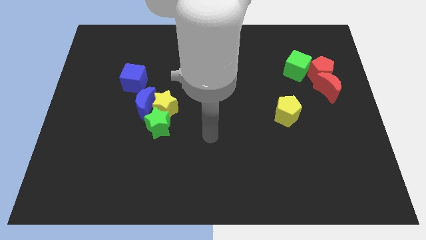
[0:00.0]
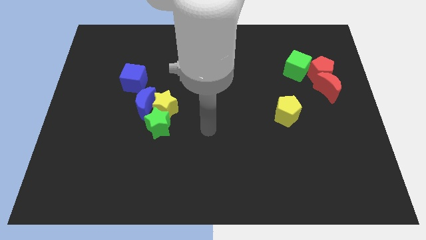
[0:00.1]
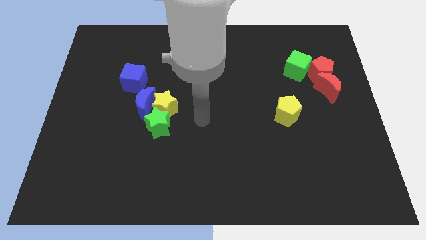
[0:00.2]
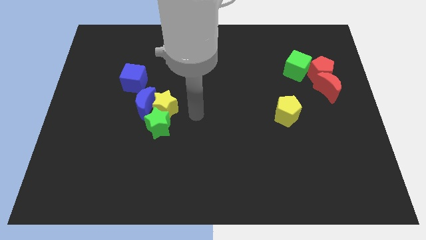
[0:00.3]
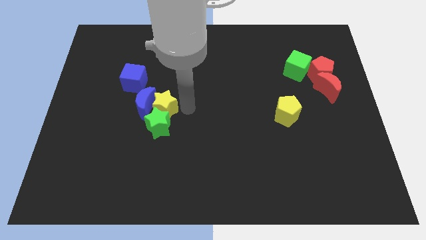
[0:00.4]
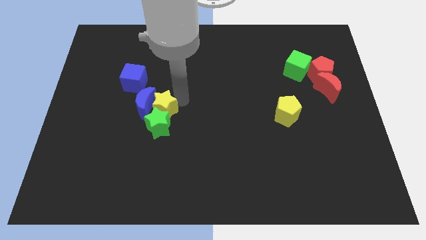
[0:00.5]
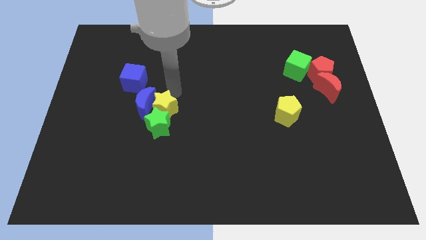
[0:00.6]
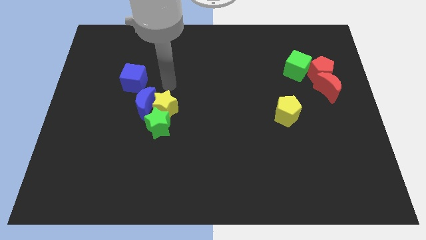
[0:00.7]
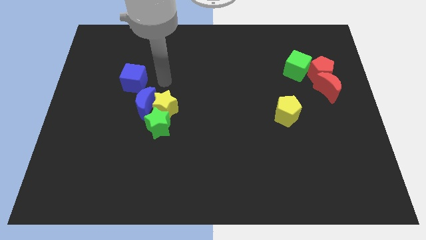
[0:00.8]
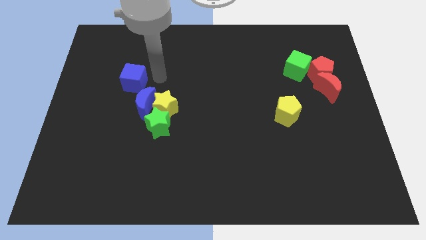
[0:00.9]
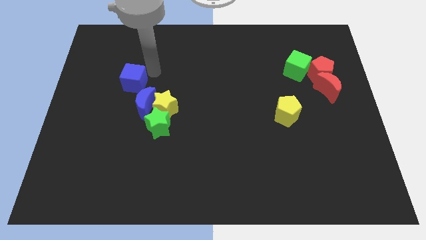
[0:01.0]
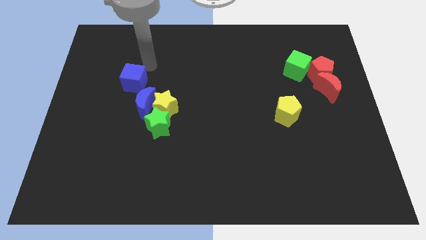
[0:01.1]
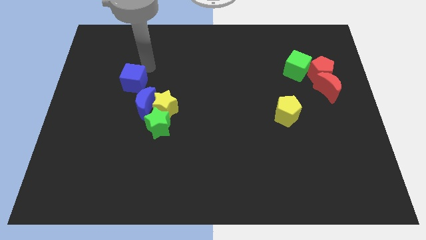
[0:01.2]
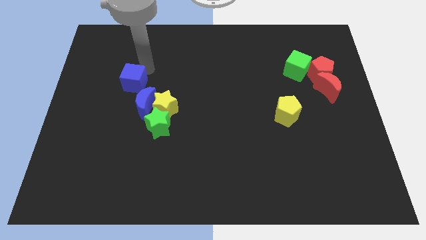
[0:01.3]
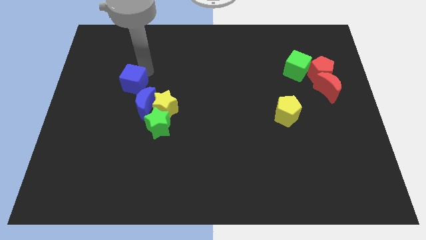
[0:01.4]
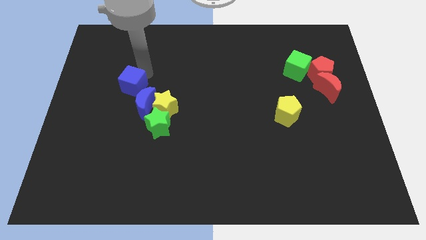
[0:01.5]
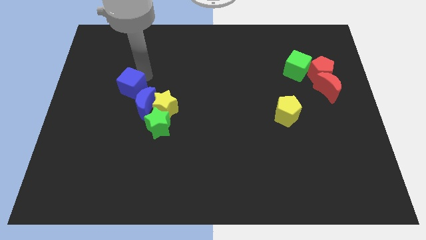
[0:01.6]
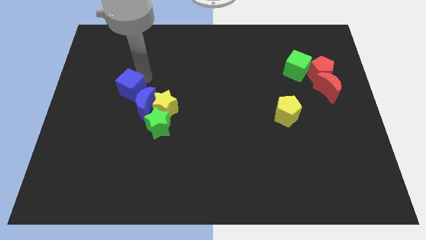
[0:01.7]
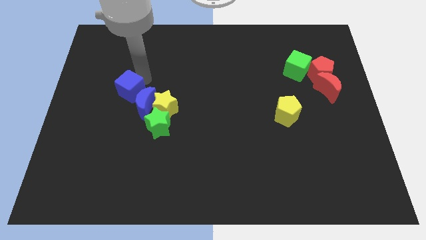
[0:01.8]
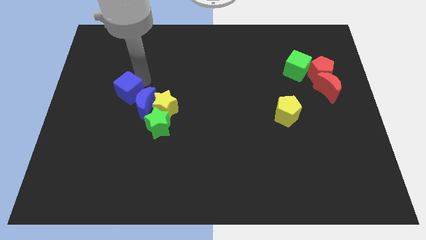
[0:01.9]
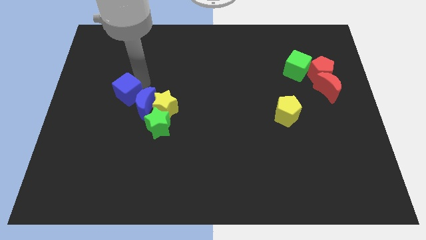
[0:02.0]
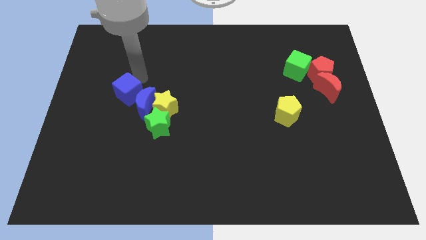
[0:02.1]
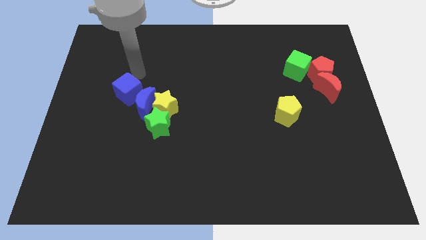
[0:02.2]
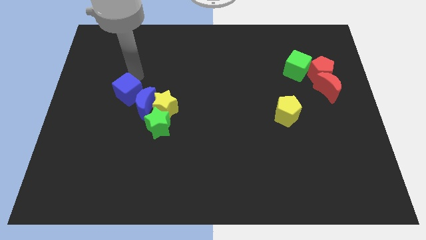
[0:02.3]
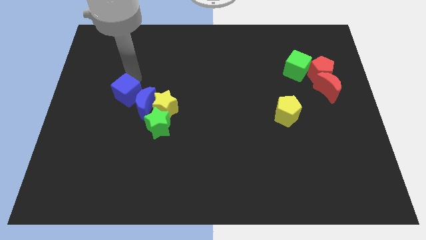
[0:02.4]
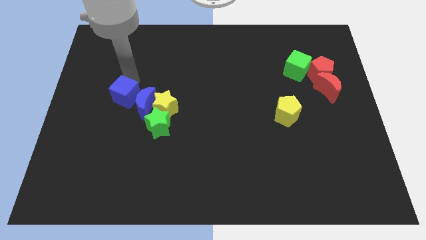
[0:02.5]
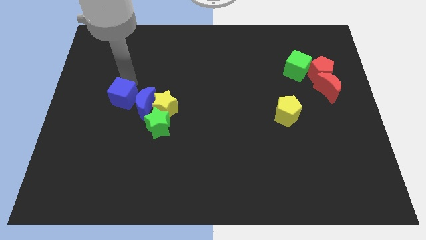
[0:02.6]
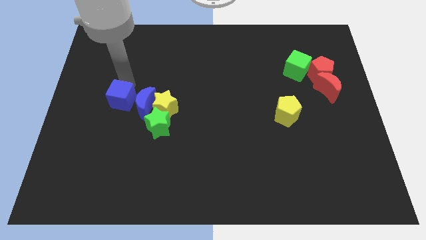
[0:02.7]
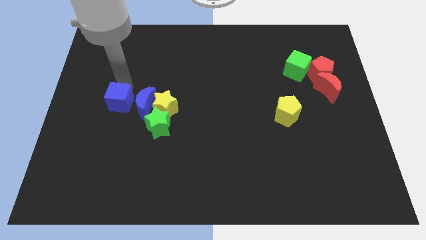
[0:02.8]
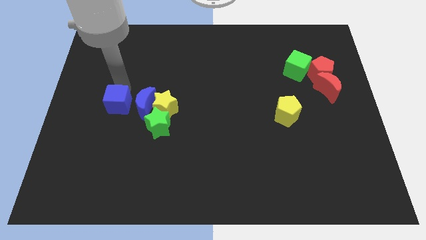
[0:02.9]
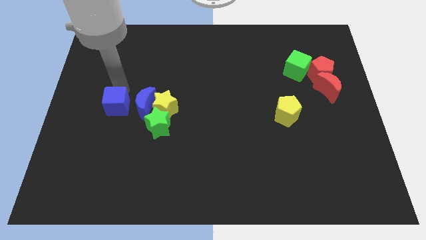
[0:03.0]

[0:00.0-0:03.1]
slightly slide the blue cube downwards

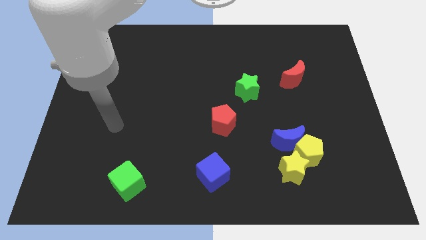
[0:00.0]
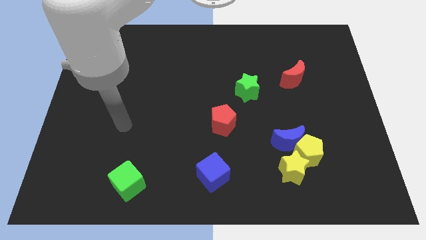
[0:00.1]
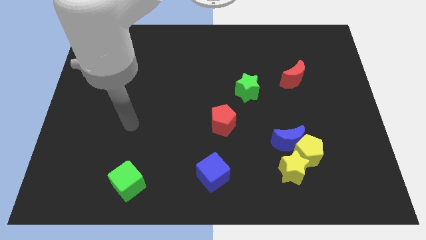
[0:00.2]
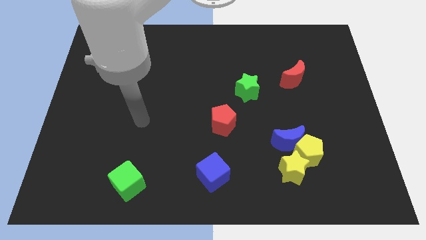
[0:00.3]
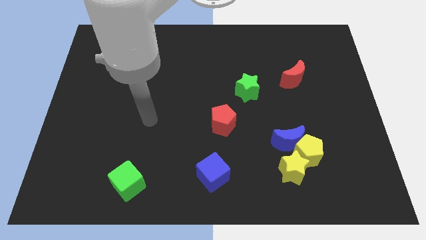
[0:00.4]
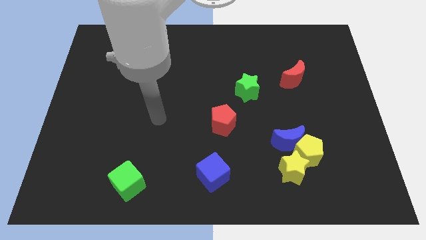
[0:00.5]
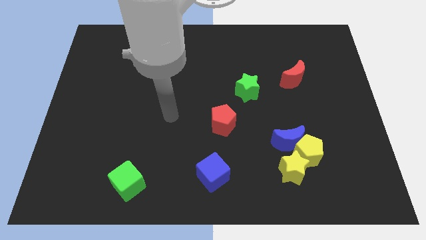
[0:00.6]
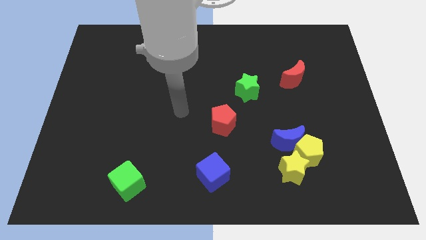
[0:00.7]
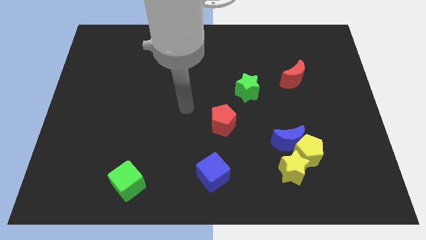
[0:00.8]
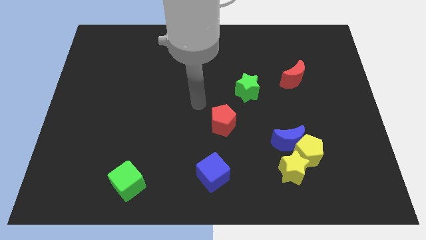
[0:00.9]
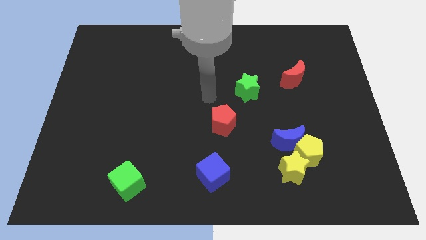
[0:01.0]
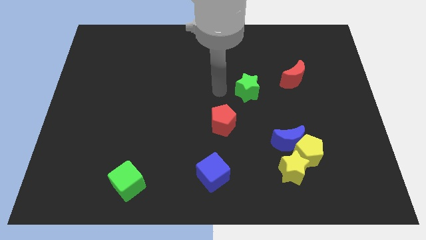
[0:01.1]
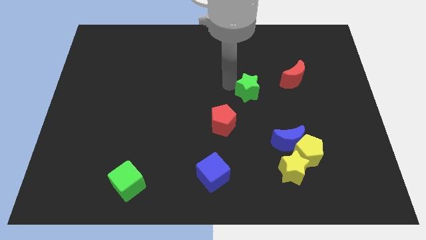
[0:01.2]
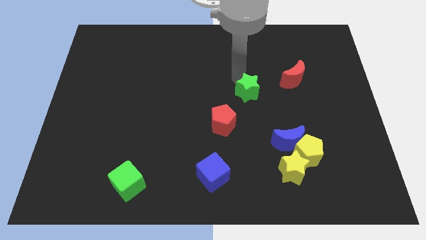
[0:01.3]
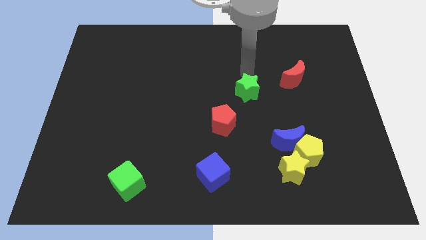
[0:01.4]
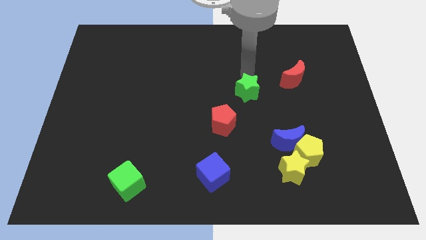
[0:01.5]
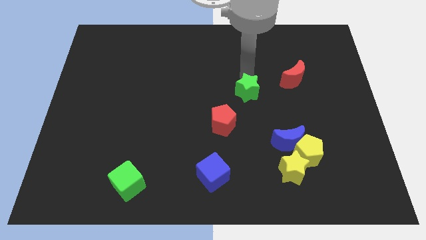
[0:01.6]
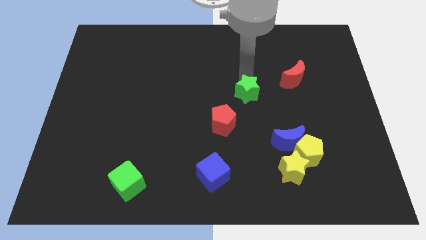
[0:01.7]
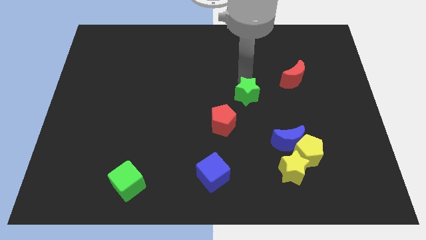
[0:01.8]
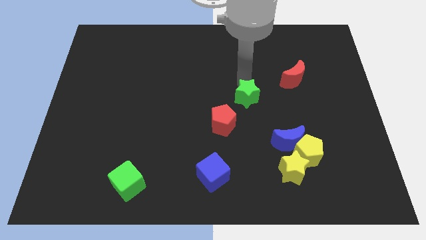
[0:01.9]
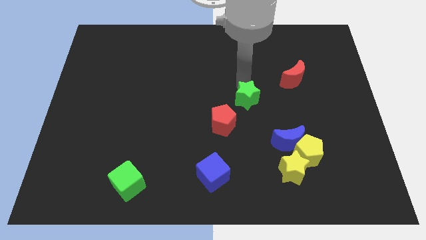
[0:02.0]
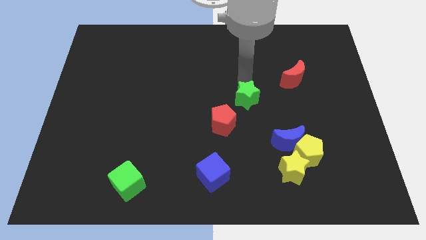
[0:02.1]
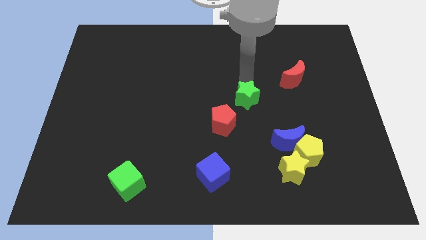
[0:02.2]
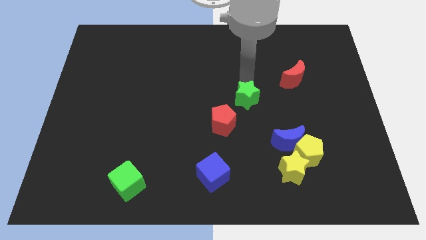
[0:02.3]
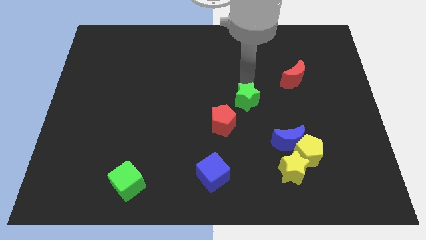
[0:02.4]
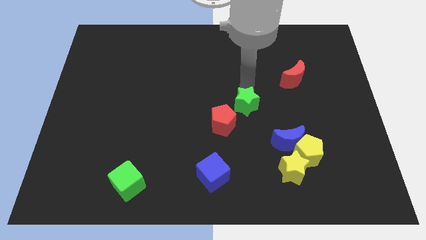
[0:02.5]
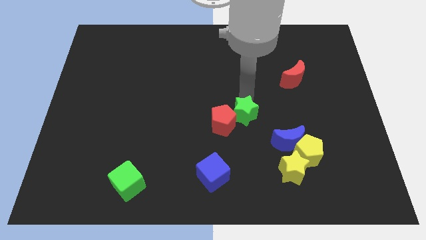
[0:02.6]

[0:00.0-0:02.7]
slide the green star somewhat down

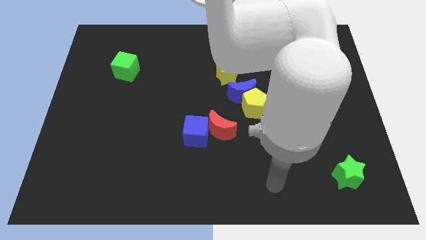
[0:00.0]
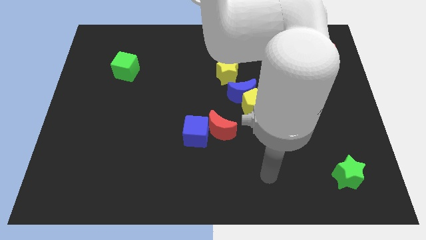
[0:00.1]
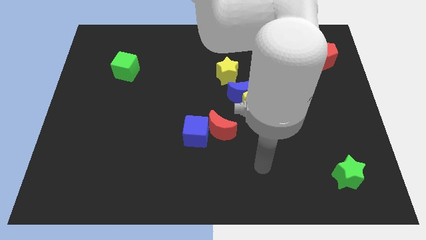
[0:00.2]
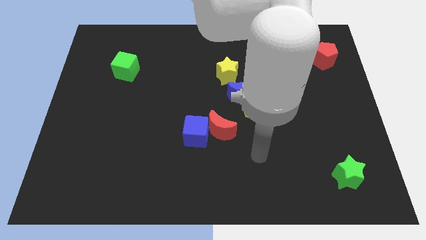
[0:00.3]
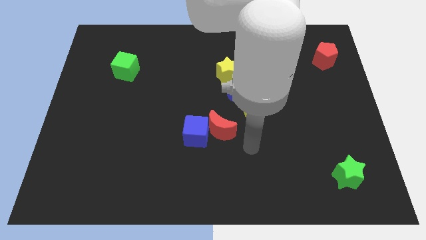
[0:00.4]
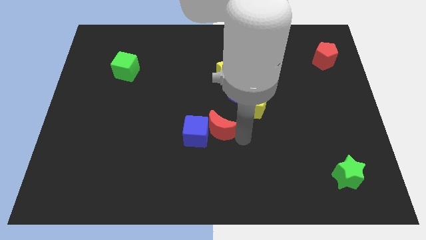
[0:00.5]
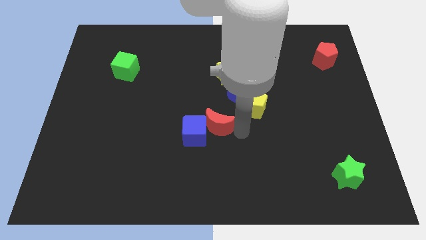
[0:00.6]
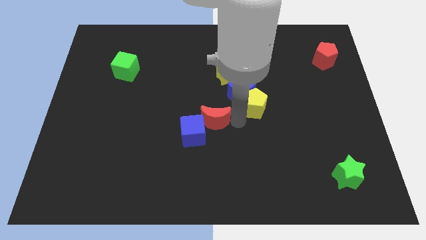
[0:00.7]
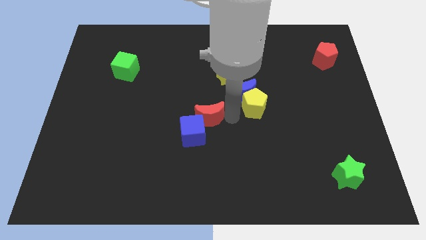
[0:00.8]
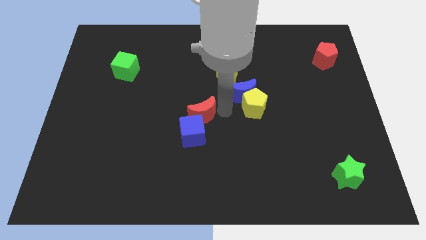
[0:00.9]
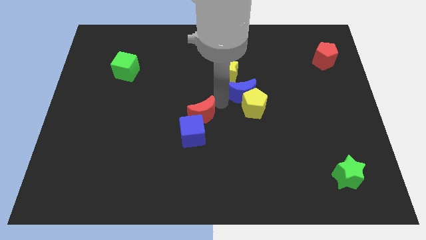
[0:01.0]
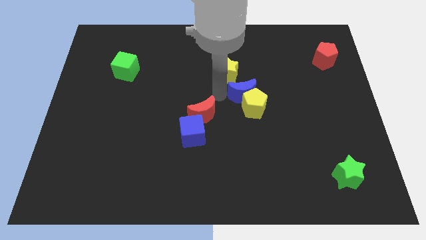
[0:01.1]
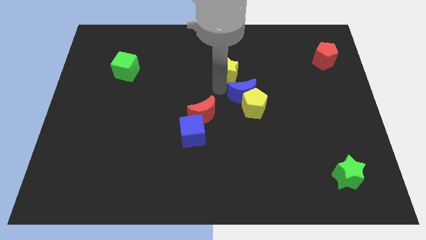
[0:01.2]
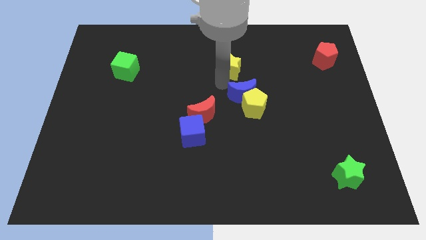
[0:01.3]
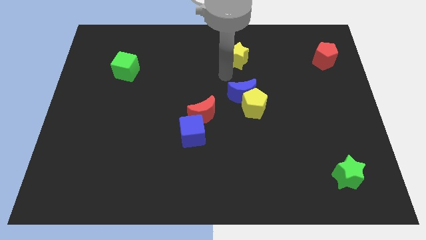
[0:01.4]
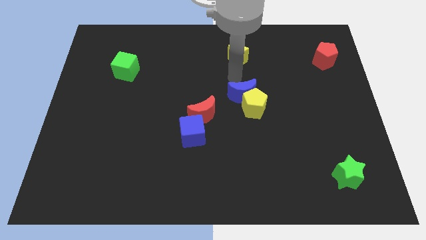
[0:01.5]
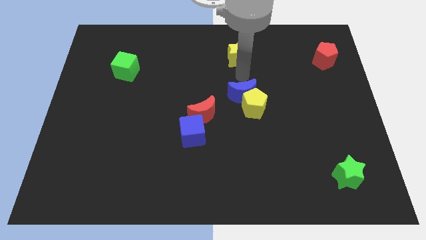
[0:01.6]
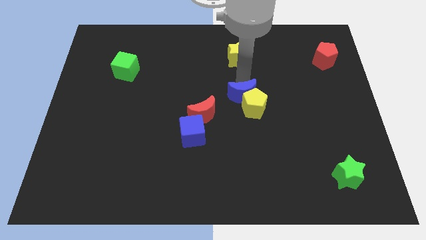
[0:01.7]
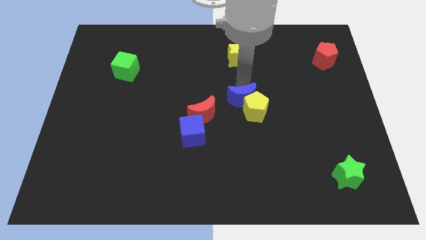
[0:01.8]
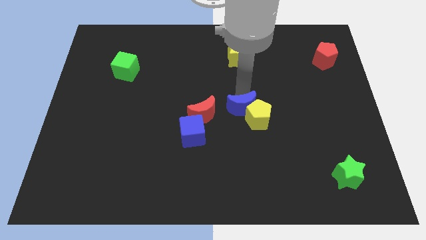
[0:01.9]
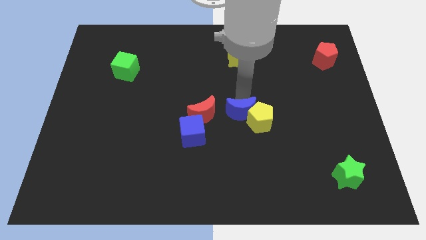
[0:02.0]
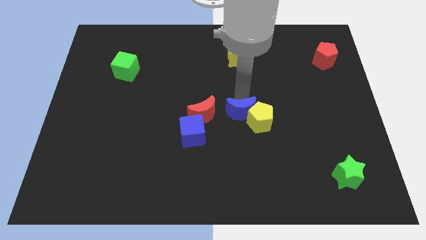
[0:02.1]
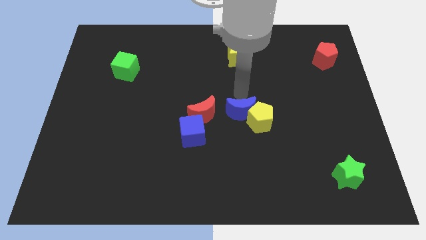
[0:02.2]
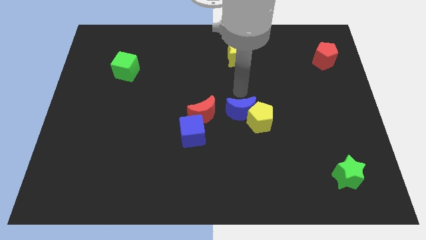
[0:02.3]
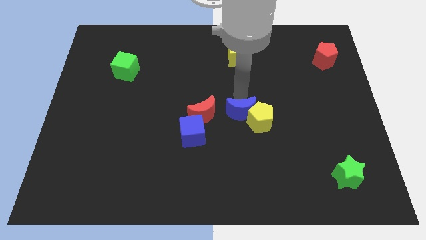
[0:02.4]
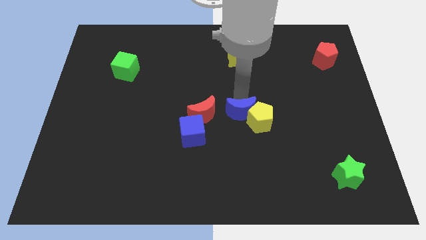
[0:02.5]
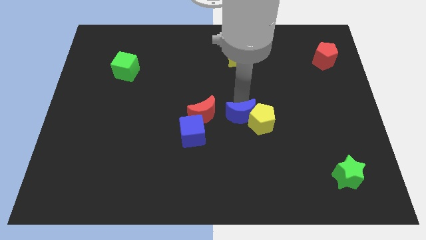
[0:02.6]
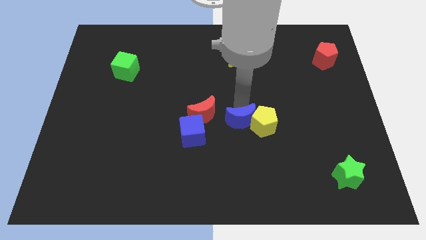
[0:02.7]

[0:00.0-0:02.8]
slide the blue moon a little down
